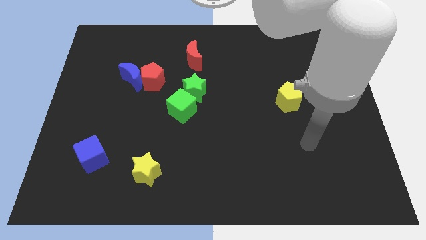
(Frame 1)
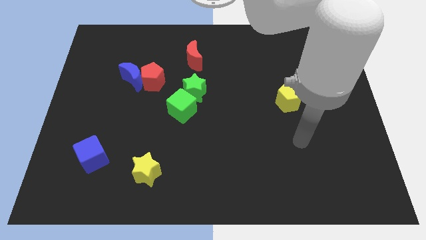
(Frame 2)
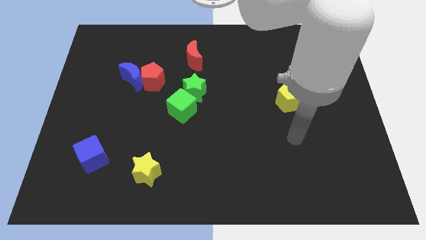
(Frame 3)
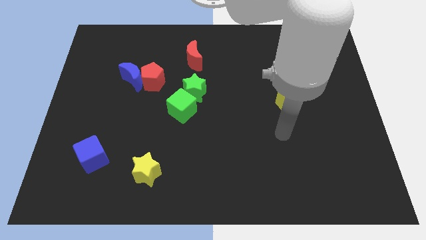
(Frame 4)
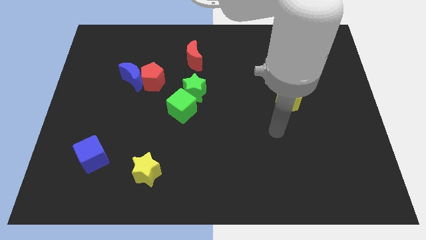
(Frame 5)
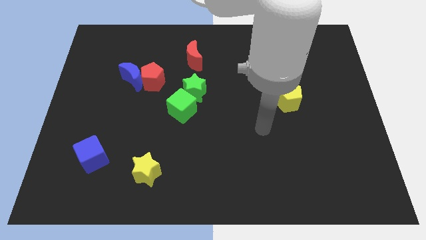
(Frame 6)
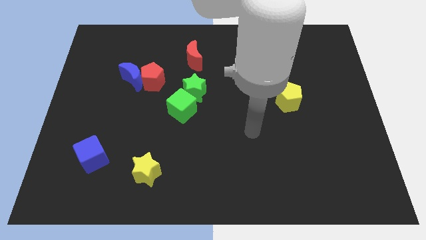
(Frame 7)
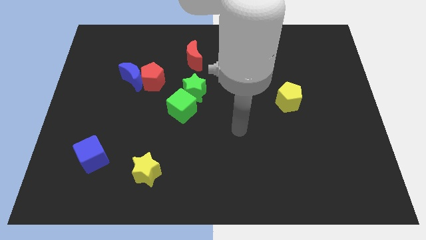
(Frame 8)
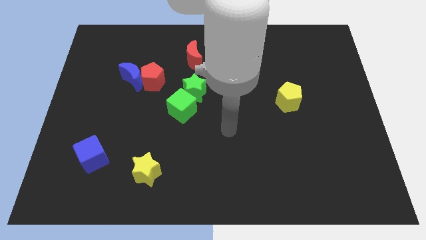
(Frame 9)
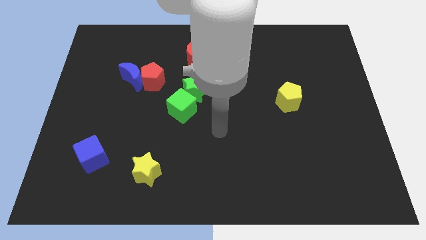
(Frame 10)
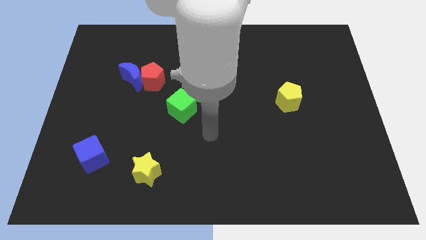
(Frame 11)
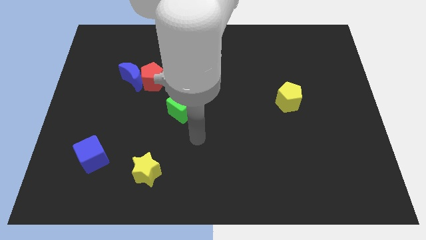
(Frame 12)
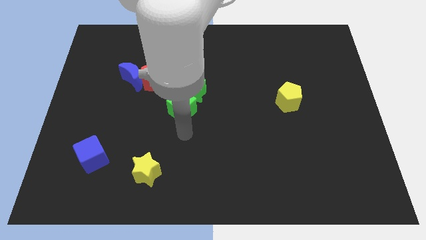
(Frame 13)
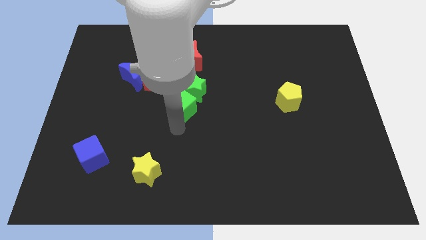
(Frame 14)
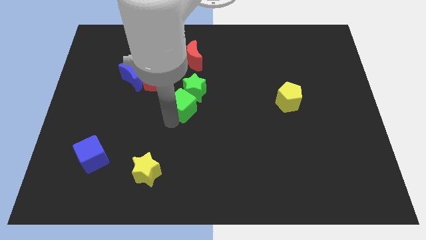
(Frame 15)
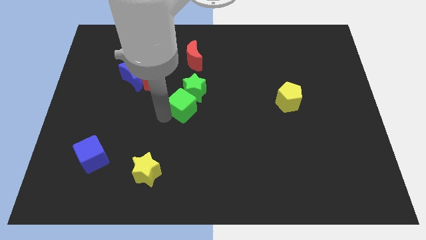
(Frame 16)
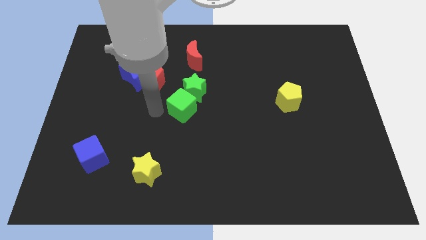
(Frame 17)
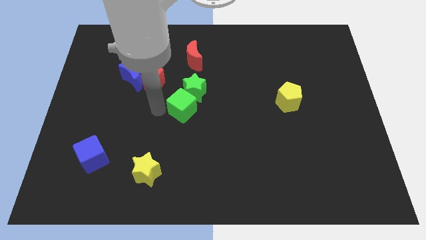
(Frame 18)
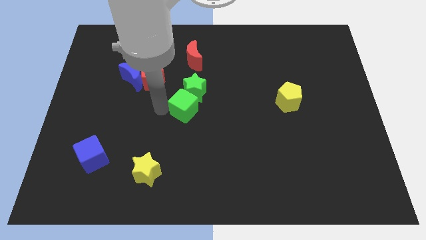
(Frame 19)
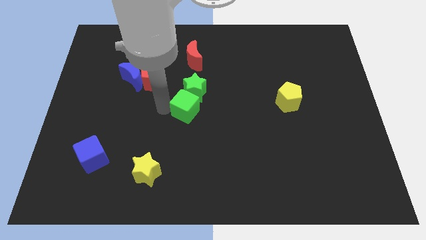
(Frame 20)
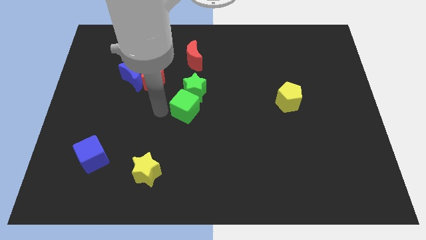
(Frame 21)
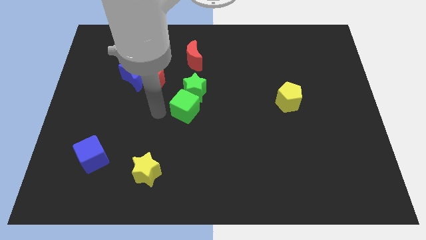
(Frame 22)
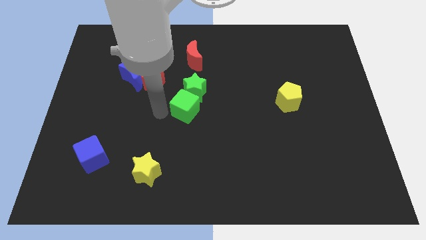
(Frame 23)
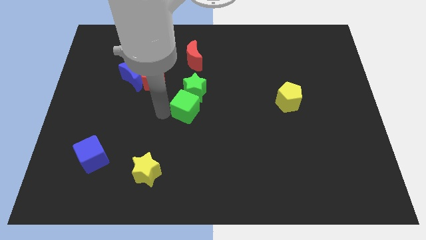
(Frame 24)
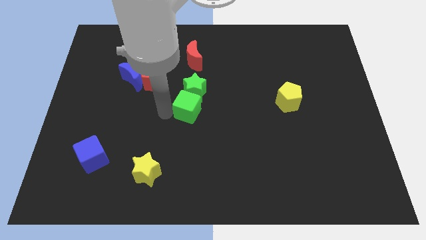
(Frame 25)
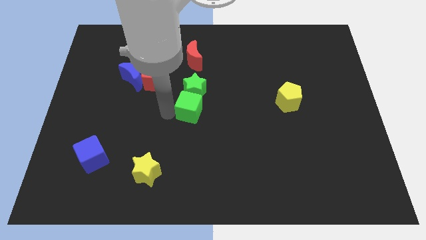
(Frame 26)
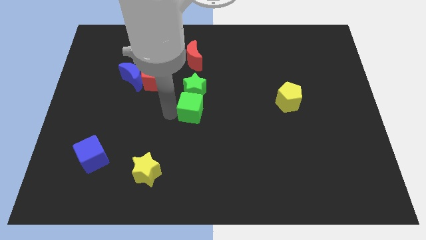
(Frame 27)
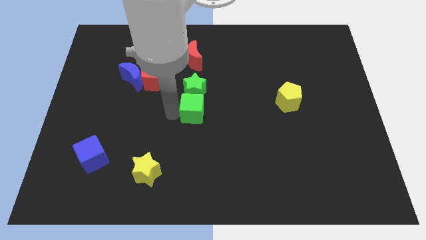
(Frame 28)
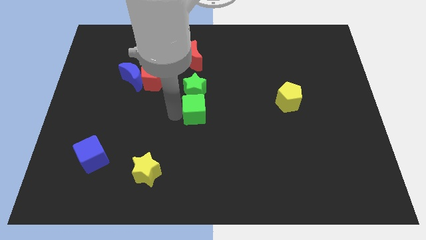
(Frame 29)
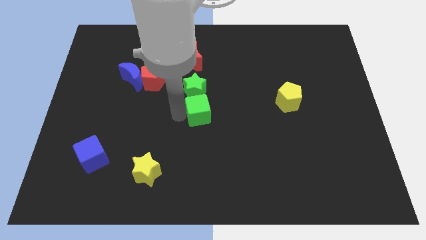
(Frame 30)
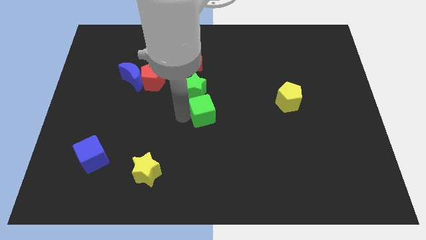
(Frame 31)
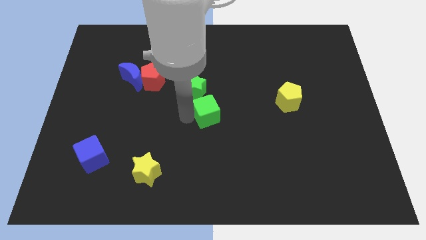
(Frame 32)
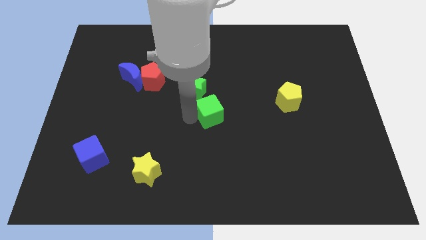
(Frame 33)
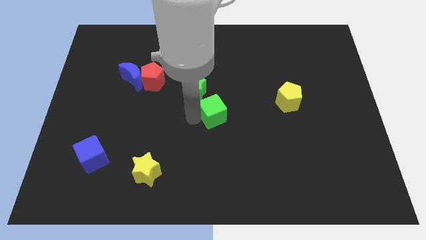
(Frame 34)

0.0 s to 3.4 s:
slide the green cube right slightly

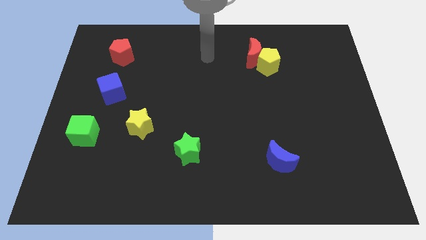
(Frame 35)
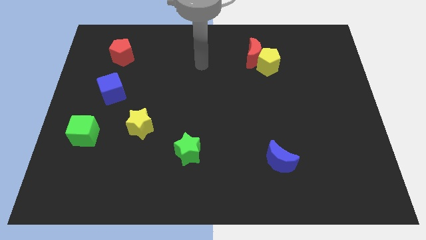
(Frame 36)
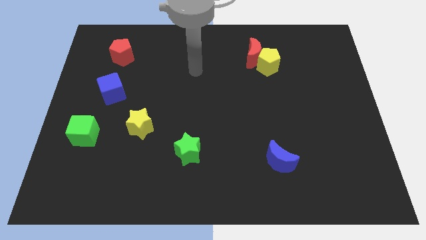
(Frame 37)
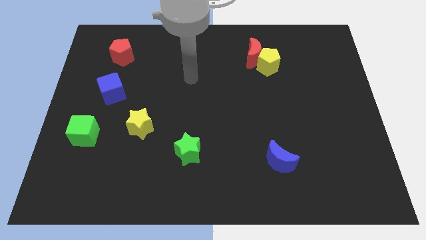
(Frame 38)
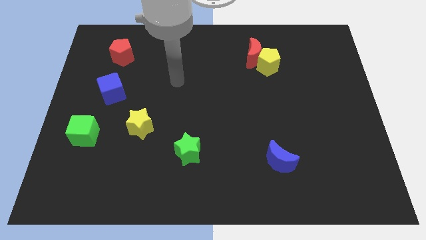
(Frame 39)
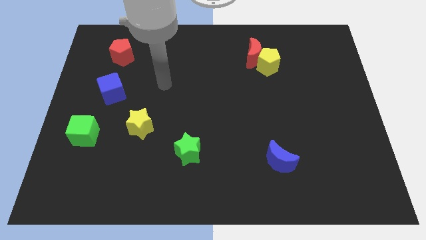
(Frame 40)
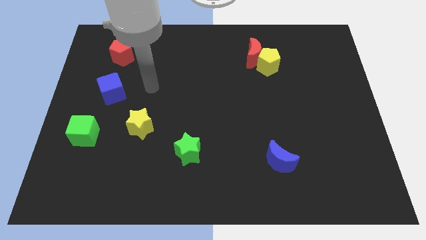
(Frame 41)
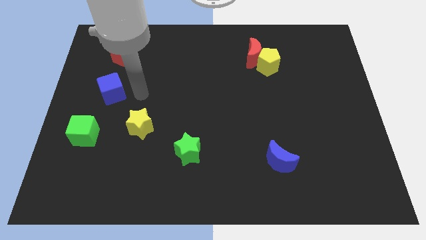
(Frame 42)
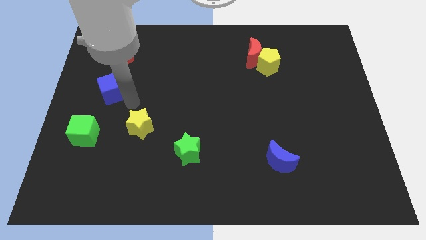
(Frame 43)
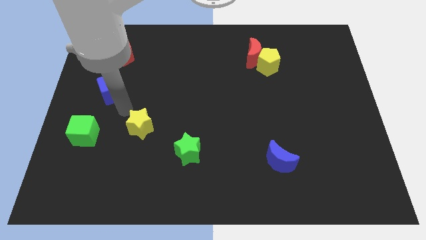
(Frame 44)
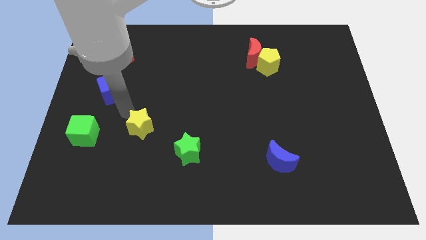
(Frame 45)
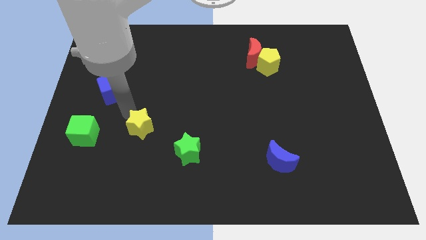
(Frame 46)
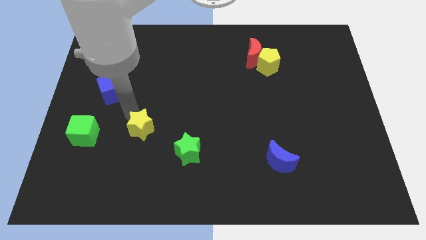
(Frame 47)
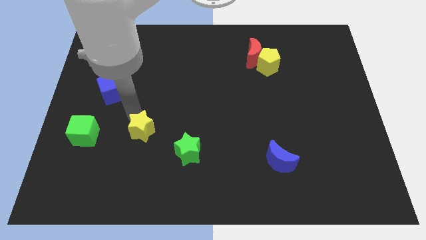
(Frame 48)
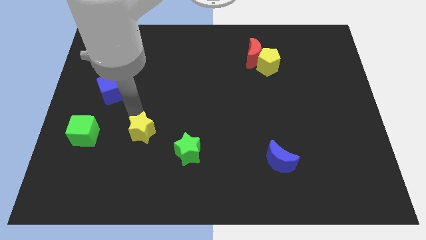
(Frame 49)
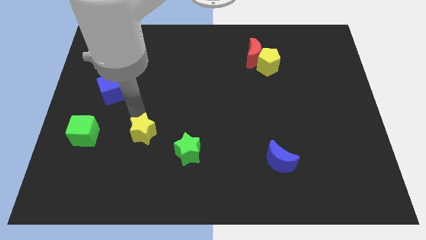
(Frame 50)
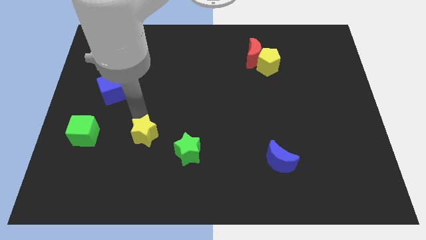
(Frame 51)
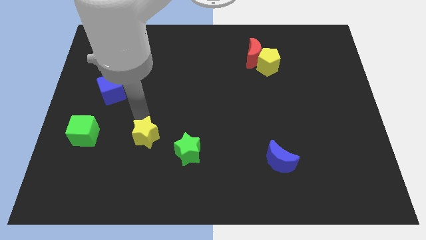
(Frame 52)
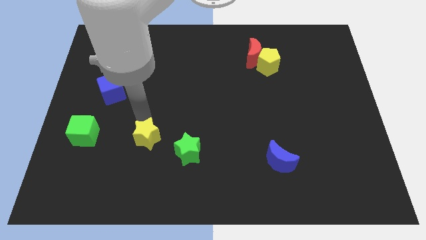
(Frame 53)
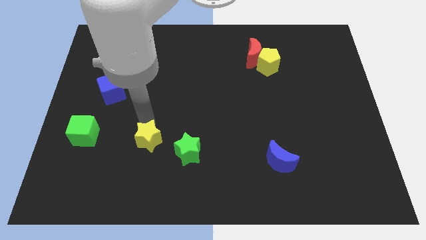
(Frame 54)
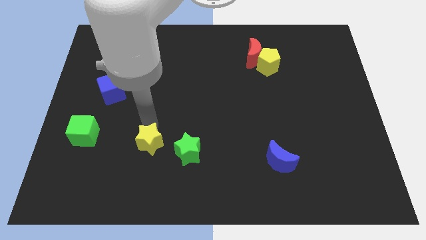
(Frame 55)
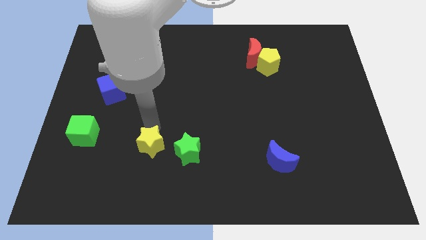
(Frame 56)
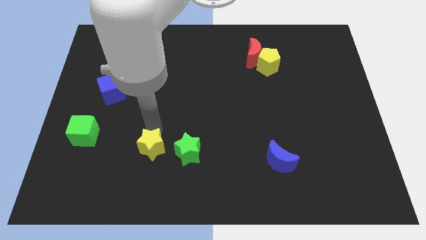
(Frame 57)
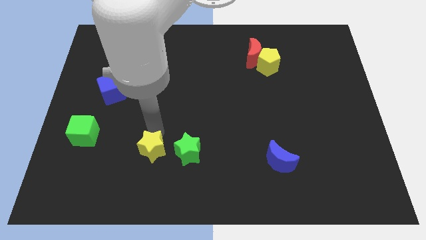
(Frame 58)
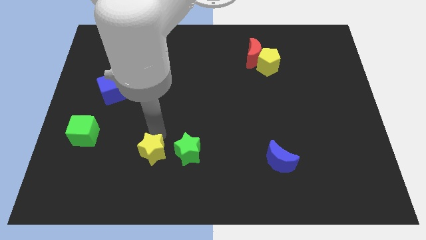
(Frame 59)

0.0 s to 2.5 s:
slightly slide the yellow star diagonally down and to the right

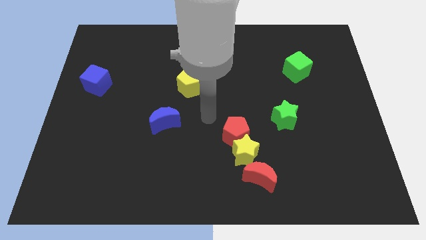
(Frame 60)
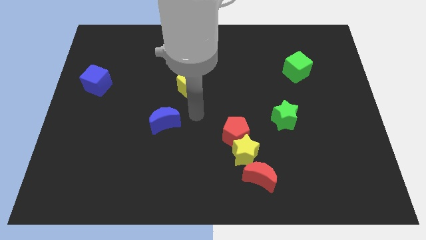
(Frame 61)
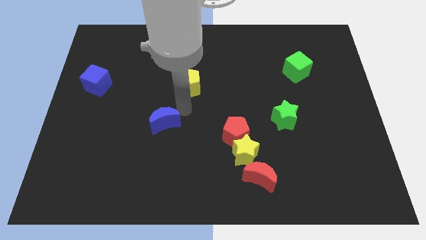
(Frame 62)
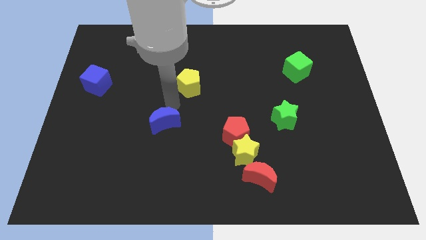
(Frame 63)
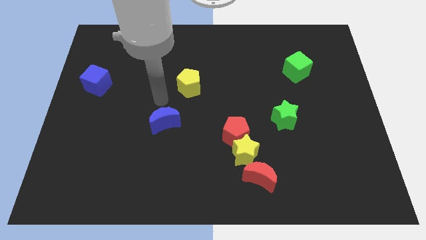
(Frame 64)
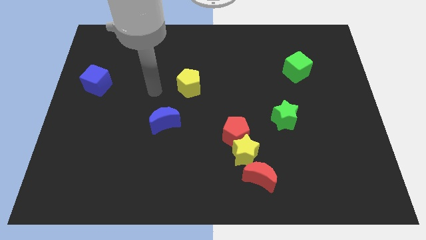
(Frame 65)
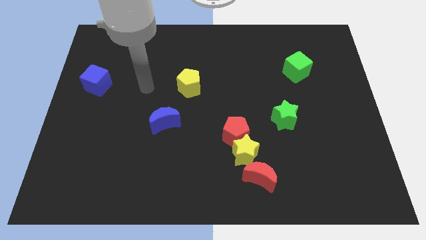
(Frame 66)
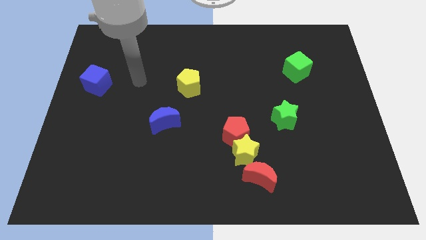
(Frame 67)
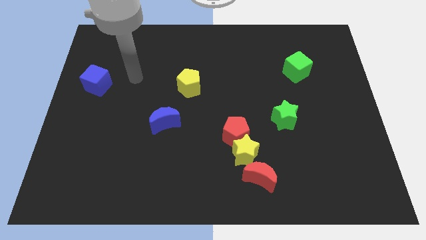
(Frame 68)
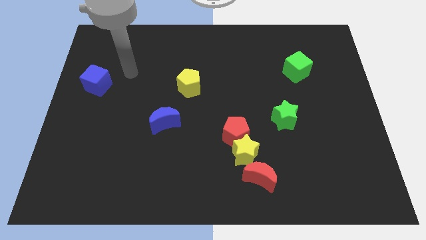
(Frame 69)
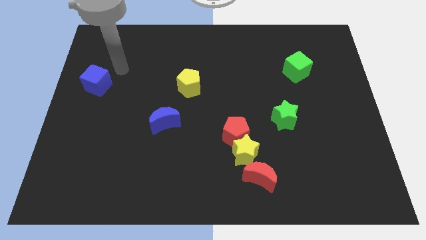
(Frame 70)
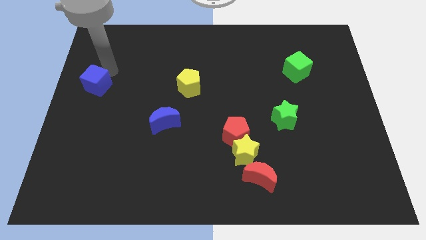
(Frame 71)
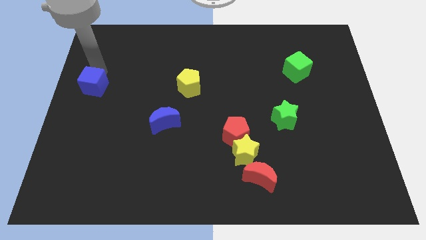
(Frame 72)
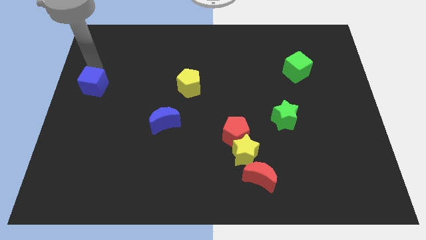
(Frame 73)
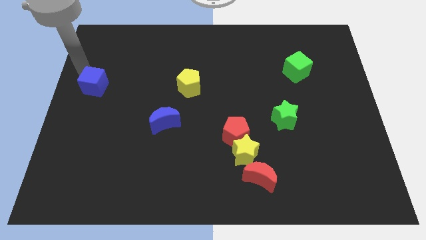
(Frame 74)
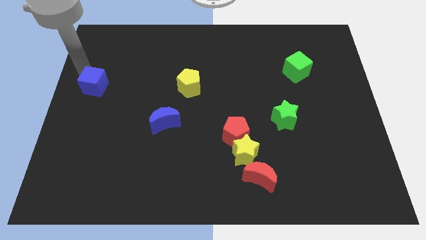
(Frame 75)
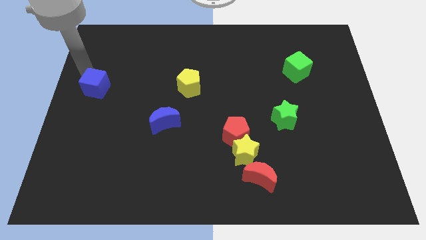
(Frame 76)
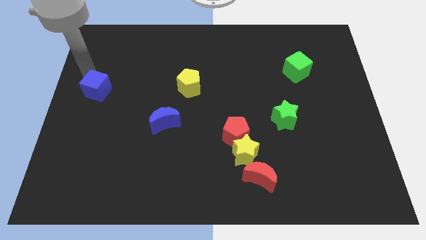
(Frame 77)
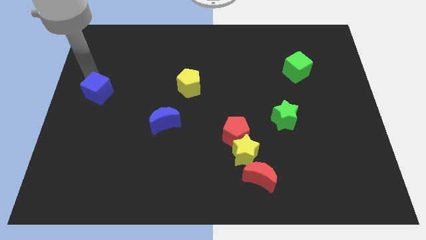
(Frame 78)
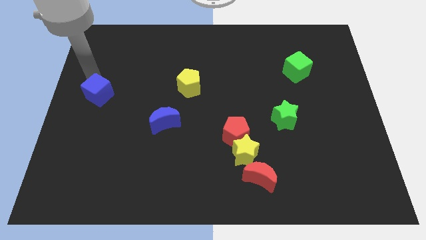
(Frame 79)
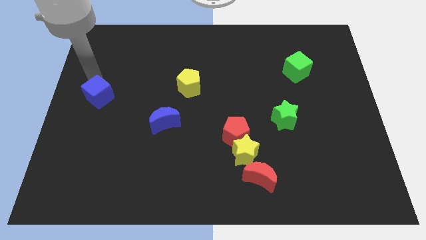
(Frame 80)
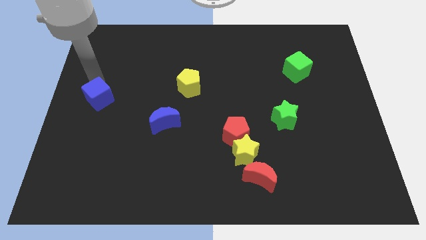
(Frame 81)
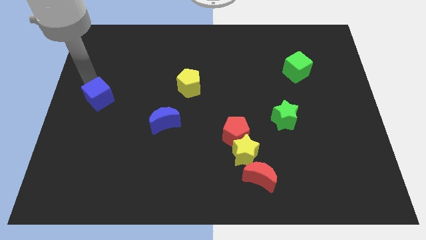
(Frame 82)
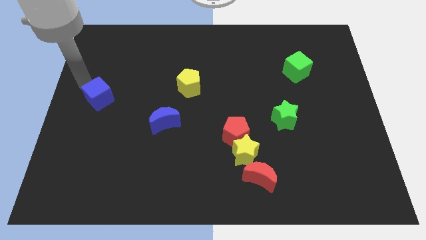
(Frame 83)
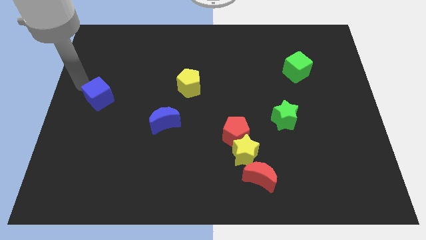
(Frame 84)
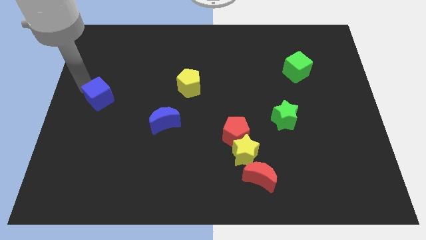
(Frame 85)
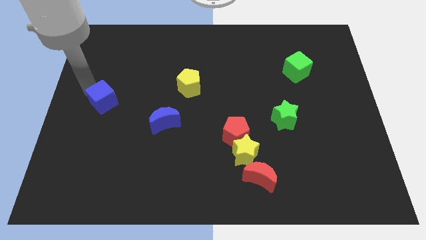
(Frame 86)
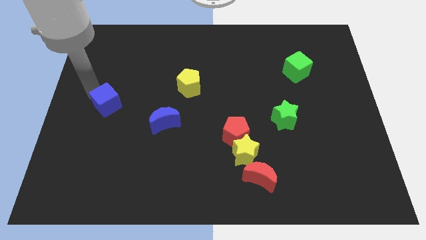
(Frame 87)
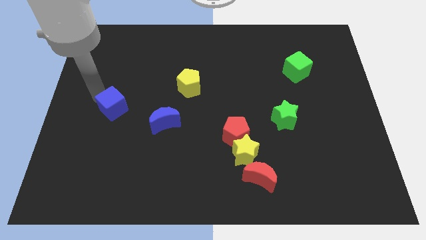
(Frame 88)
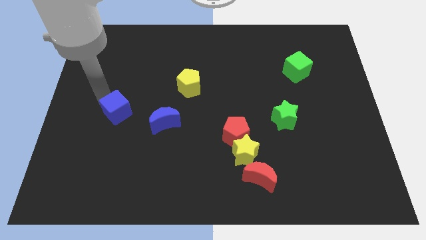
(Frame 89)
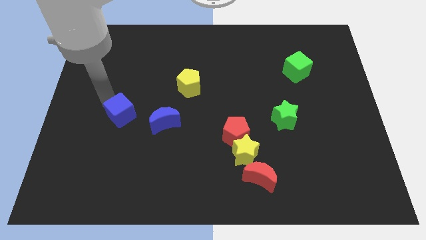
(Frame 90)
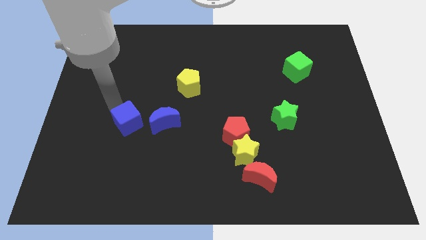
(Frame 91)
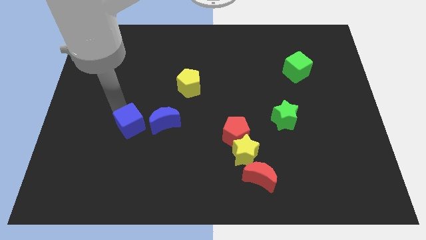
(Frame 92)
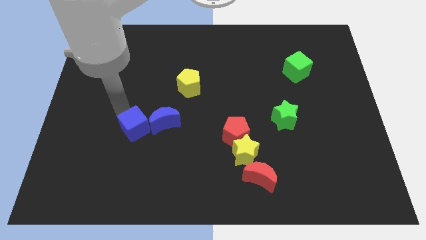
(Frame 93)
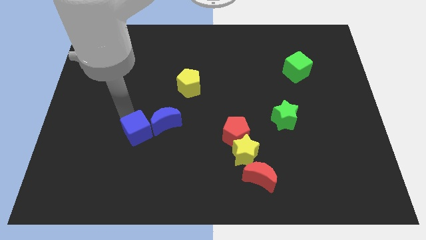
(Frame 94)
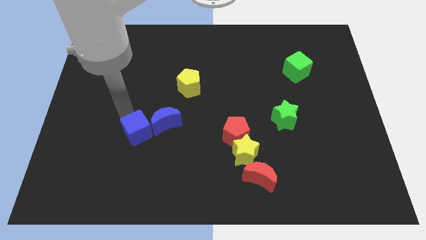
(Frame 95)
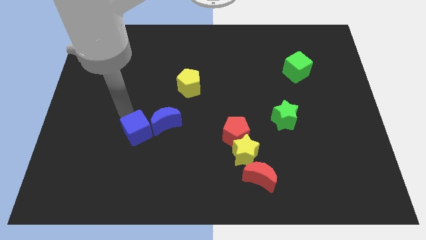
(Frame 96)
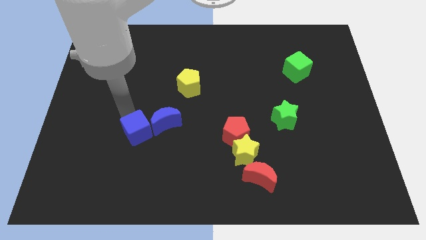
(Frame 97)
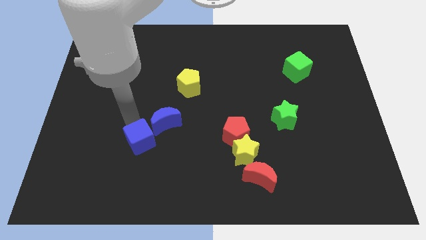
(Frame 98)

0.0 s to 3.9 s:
push the blue cube diagonally downwards and right
